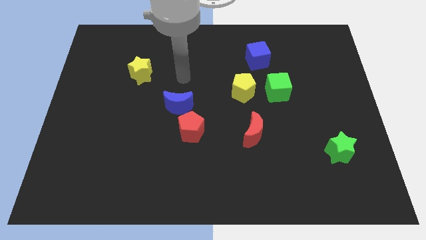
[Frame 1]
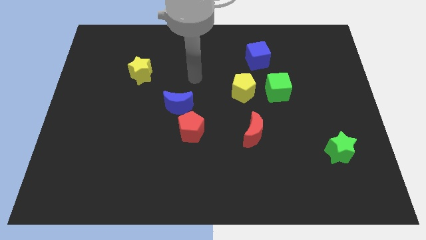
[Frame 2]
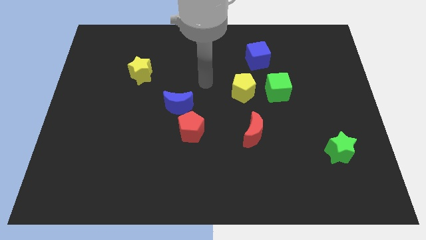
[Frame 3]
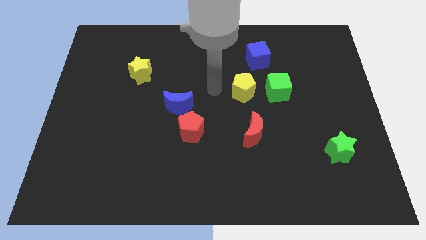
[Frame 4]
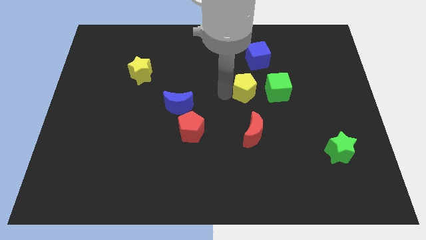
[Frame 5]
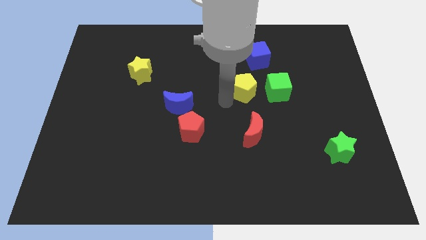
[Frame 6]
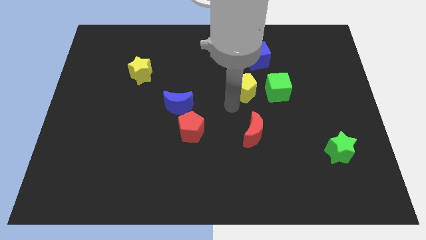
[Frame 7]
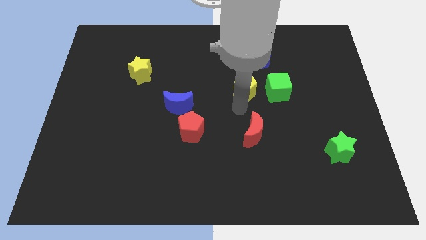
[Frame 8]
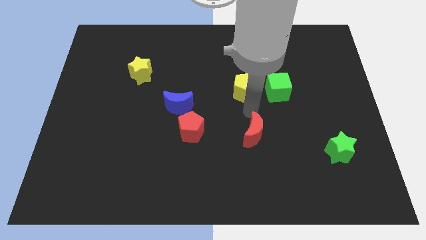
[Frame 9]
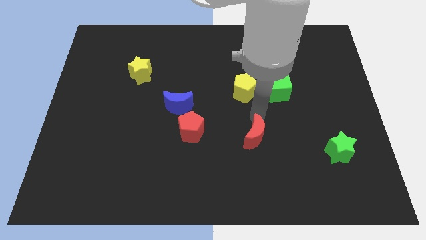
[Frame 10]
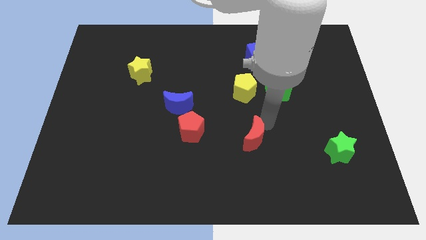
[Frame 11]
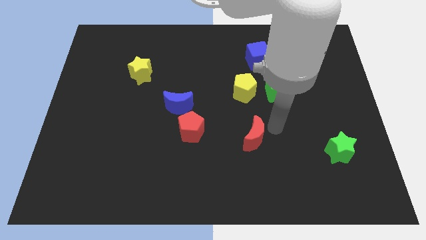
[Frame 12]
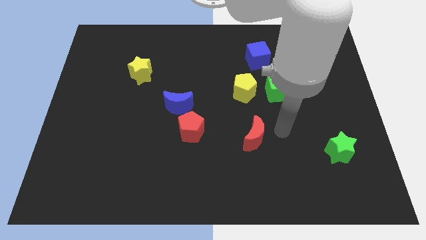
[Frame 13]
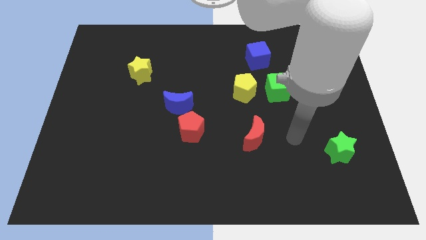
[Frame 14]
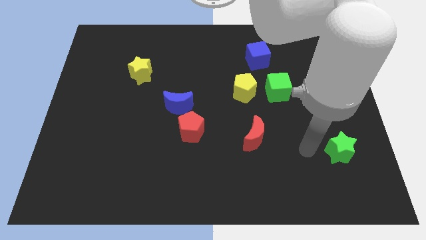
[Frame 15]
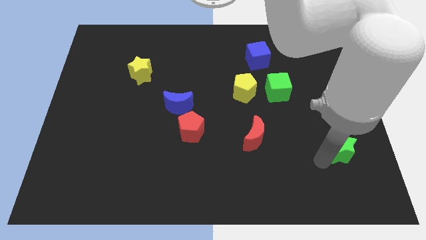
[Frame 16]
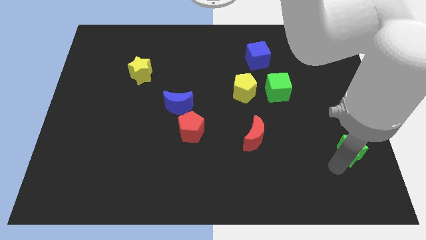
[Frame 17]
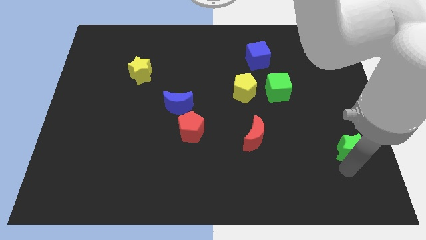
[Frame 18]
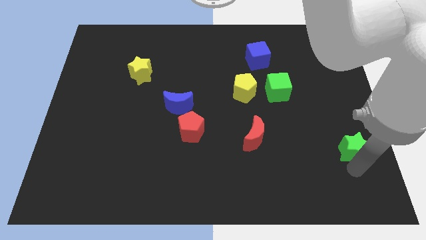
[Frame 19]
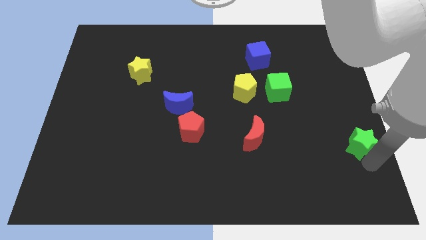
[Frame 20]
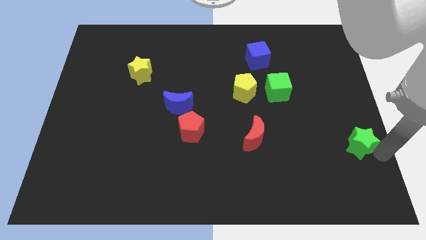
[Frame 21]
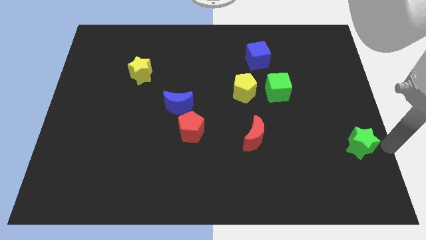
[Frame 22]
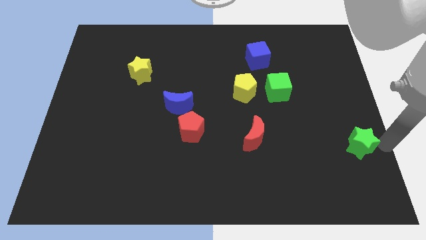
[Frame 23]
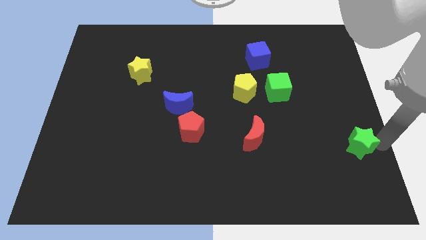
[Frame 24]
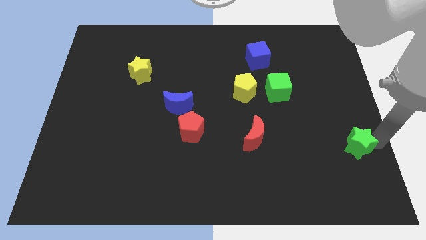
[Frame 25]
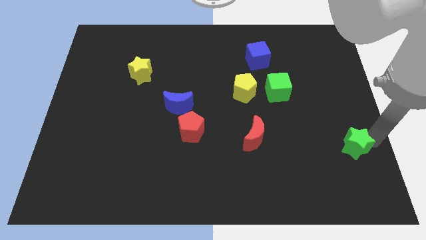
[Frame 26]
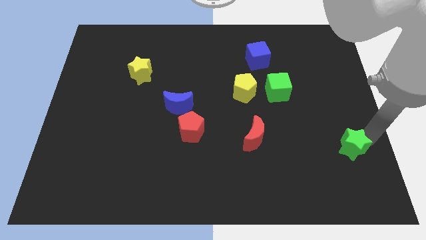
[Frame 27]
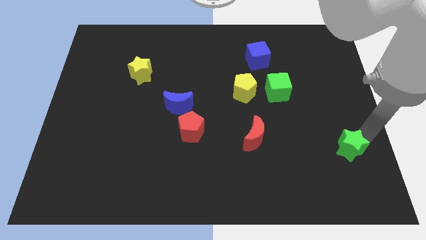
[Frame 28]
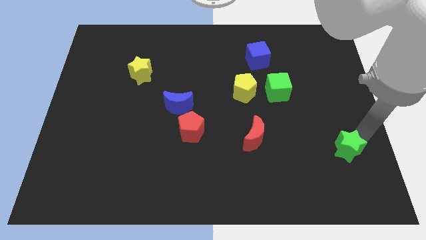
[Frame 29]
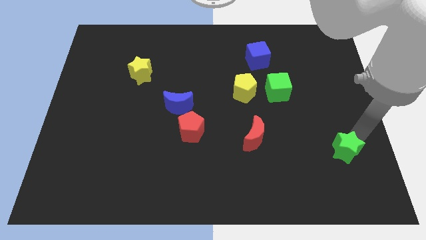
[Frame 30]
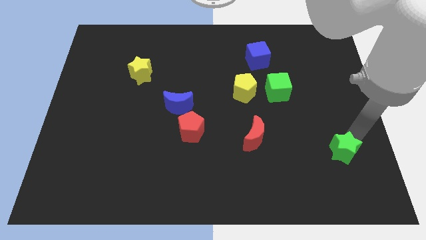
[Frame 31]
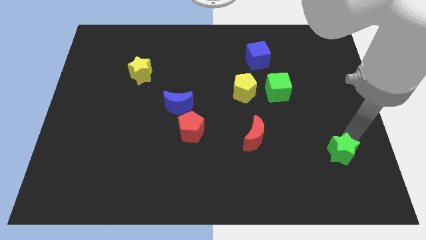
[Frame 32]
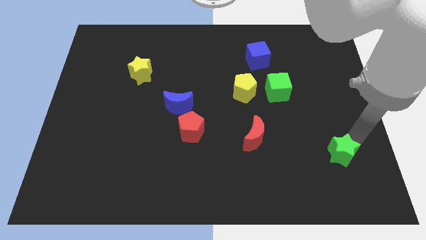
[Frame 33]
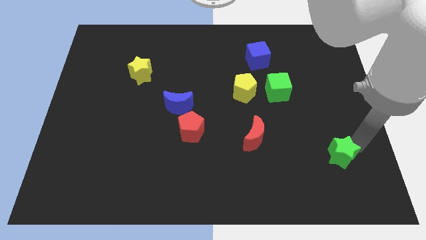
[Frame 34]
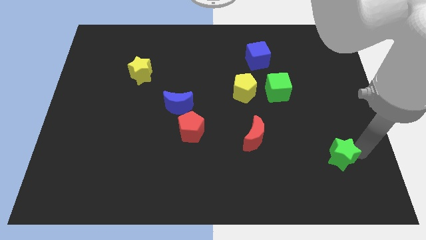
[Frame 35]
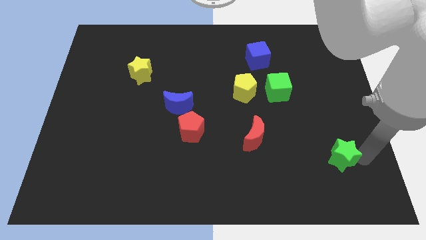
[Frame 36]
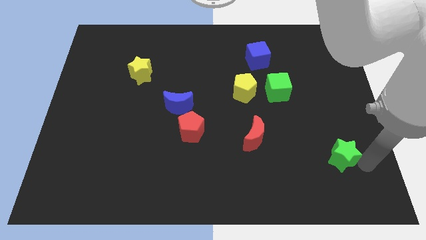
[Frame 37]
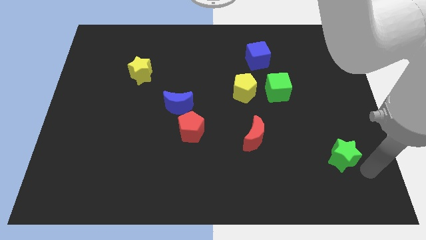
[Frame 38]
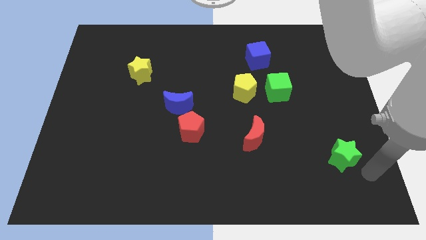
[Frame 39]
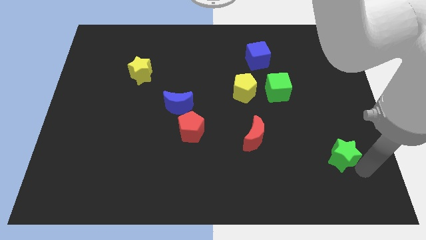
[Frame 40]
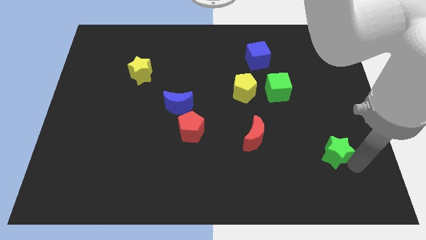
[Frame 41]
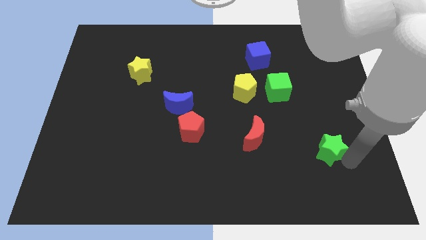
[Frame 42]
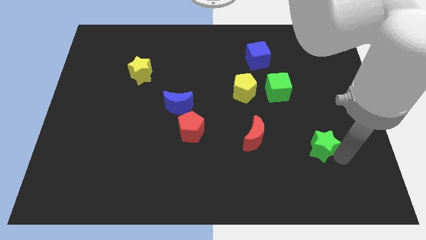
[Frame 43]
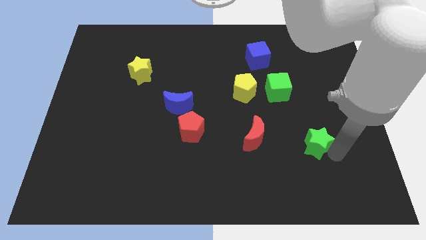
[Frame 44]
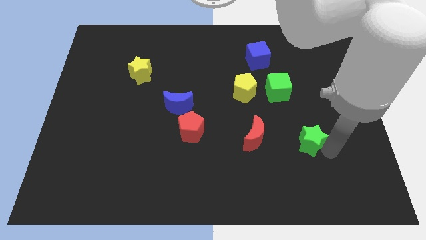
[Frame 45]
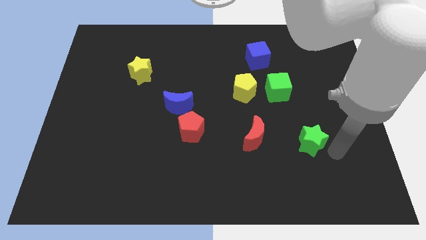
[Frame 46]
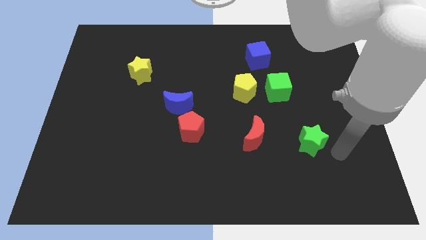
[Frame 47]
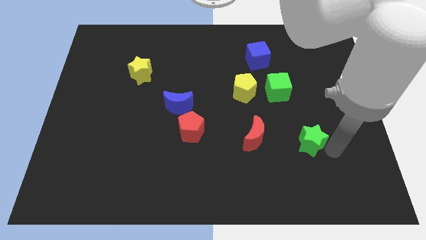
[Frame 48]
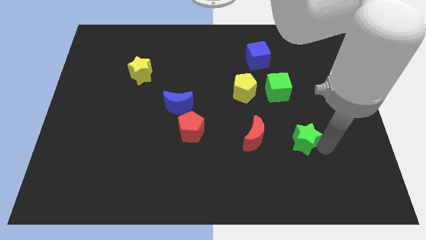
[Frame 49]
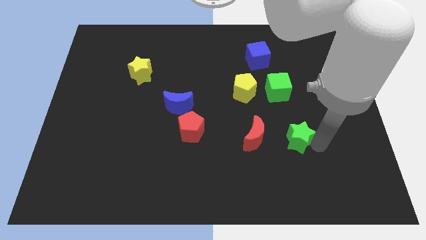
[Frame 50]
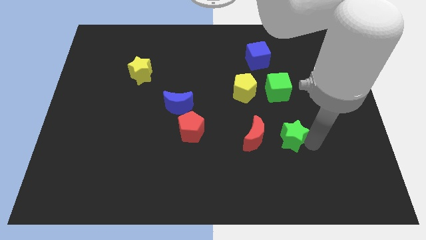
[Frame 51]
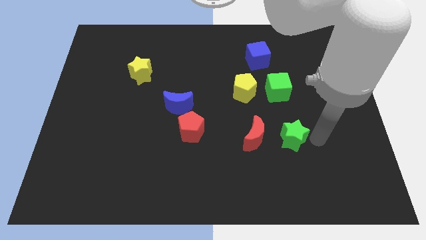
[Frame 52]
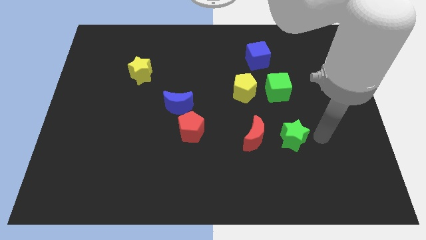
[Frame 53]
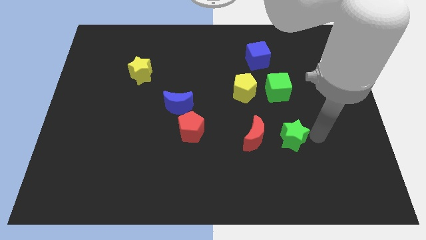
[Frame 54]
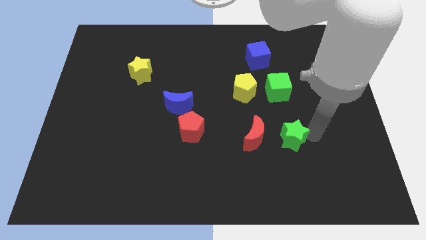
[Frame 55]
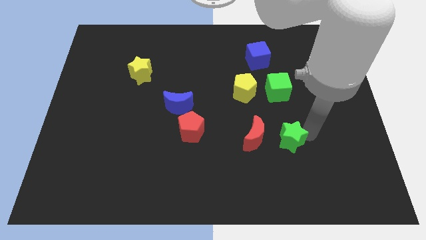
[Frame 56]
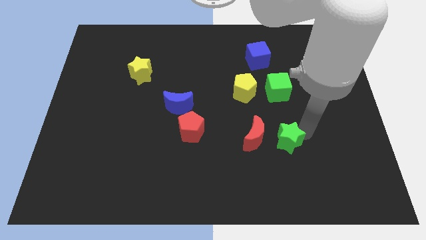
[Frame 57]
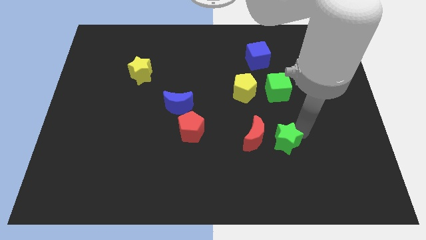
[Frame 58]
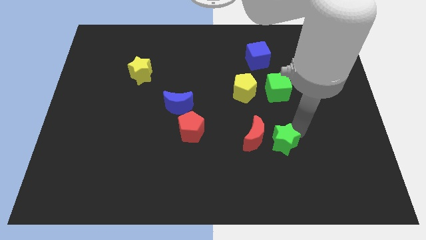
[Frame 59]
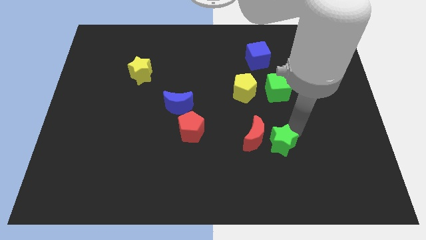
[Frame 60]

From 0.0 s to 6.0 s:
move the green star towards the red moon
